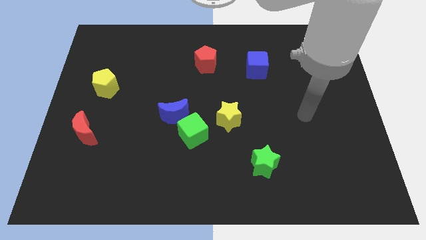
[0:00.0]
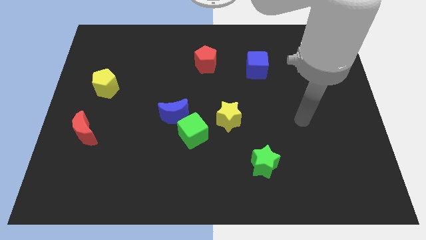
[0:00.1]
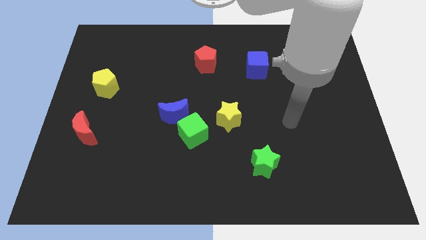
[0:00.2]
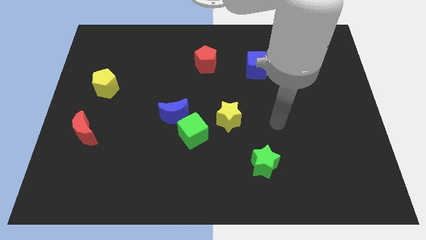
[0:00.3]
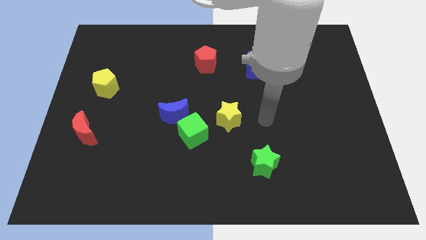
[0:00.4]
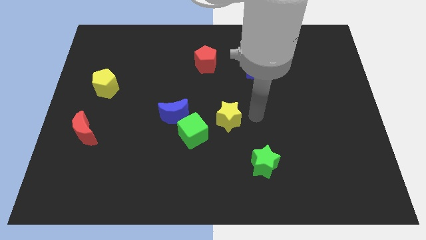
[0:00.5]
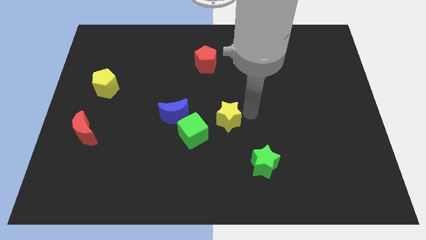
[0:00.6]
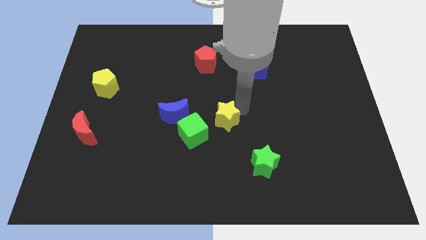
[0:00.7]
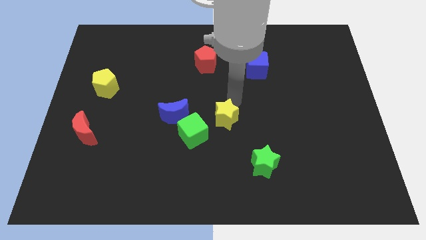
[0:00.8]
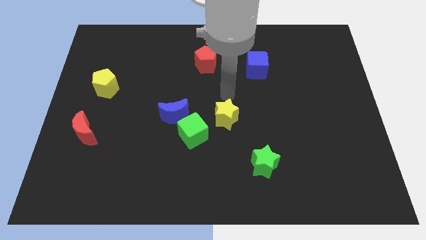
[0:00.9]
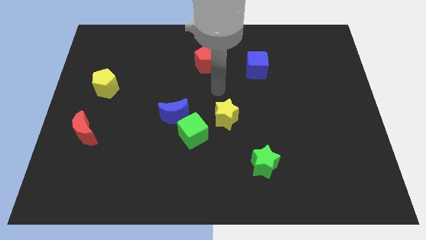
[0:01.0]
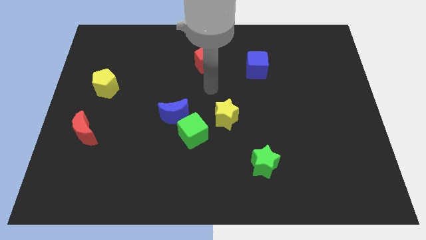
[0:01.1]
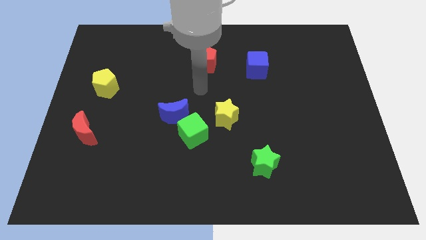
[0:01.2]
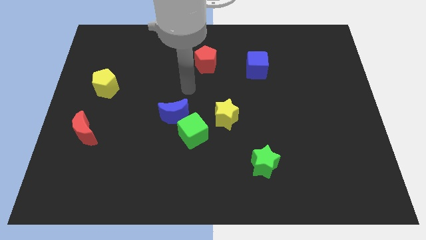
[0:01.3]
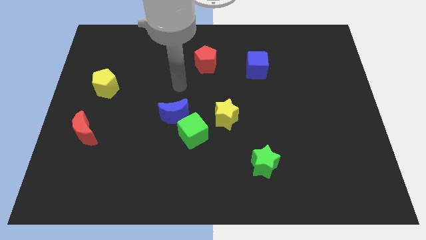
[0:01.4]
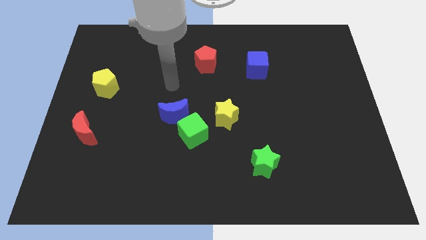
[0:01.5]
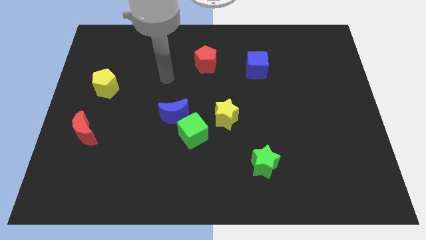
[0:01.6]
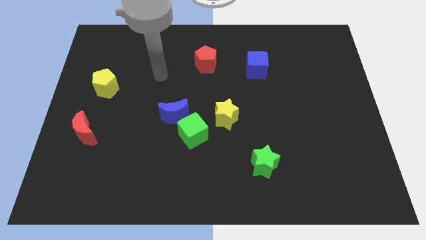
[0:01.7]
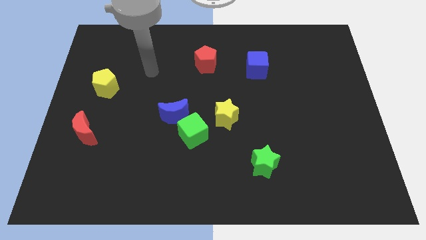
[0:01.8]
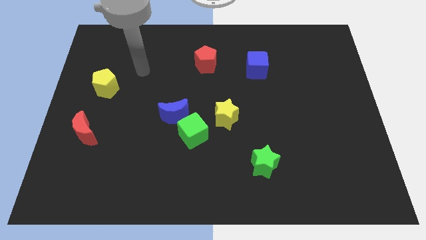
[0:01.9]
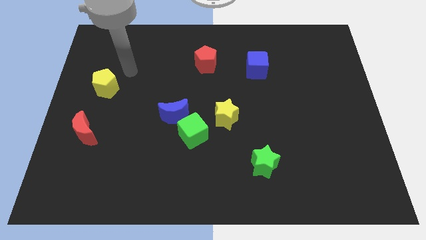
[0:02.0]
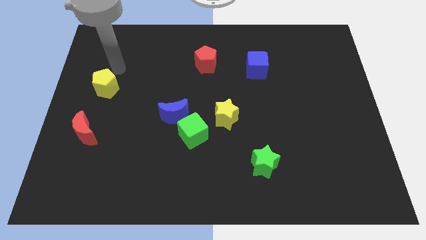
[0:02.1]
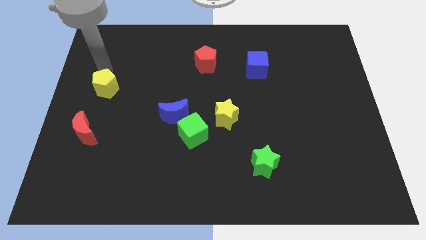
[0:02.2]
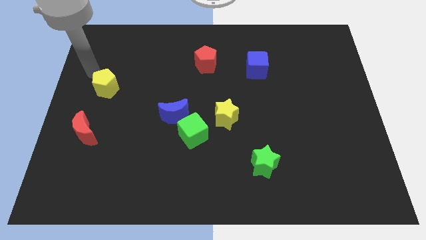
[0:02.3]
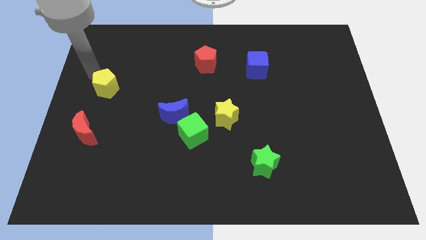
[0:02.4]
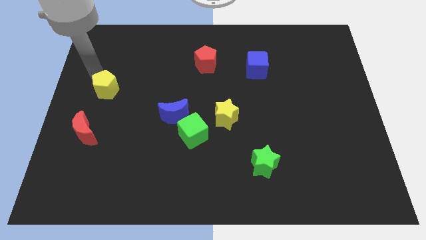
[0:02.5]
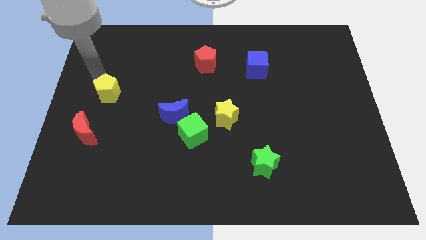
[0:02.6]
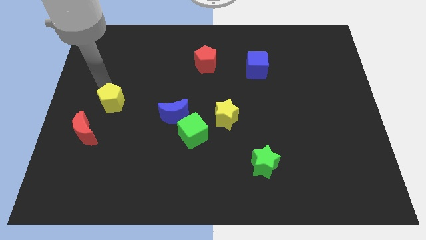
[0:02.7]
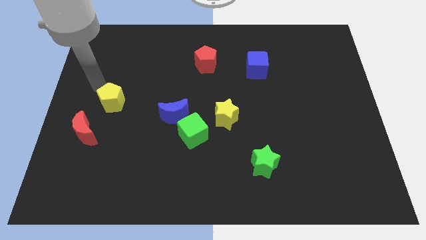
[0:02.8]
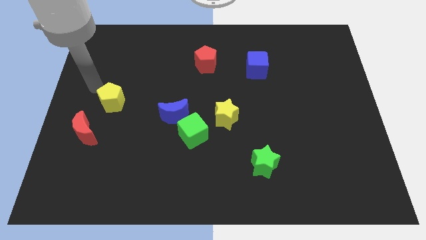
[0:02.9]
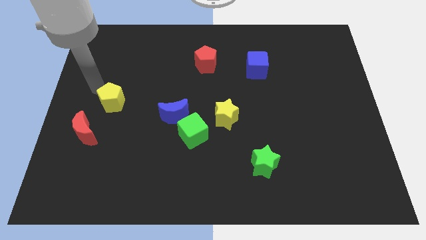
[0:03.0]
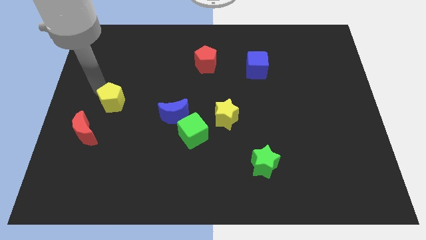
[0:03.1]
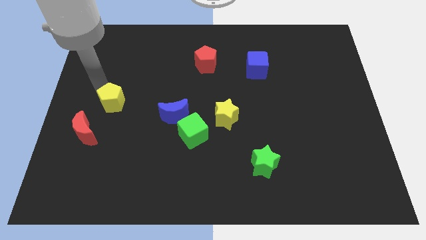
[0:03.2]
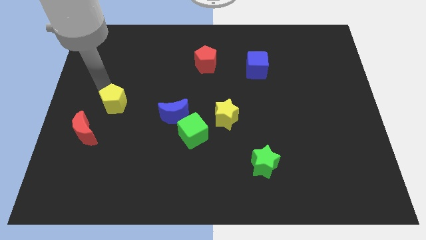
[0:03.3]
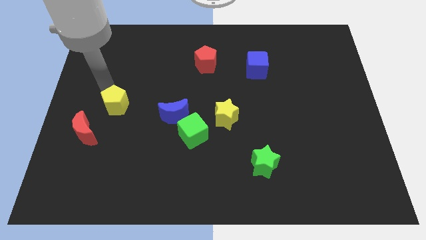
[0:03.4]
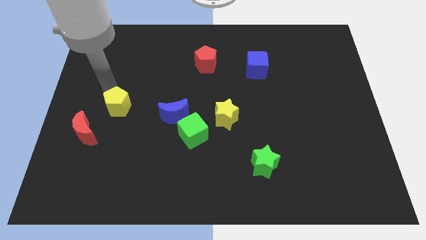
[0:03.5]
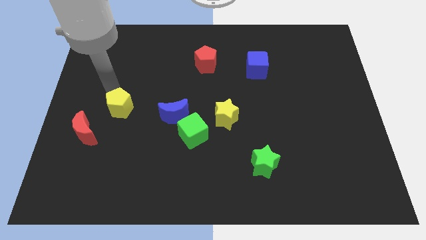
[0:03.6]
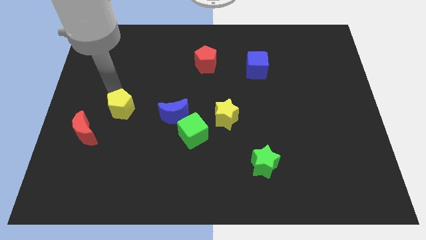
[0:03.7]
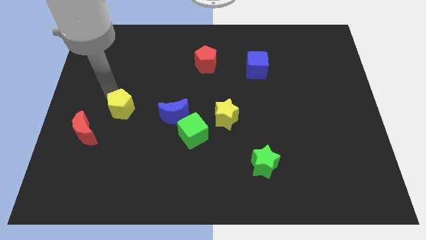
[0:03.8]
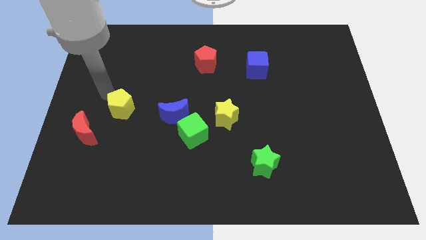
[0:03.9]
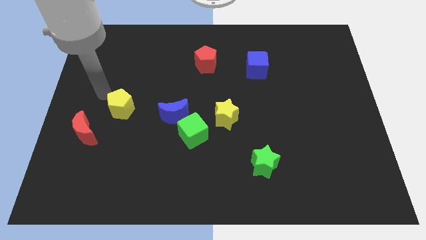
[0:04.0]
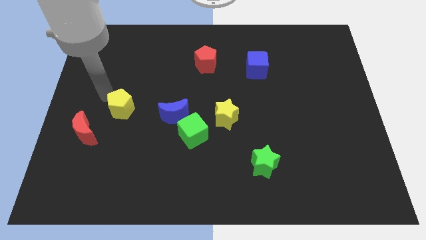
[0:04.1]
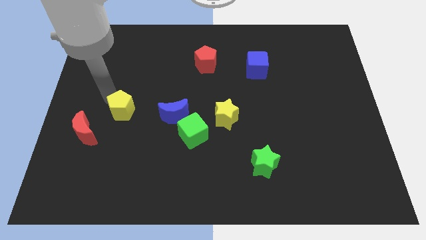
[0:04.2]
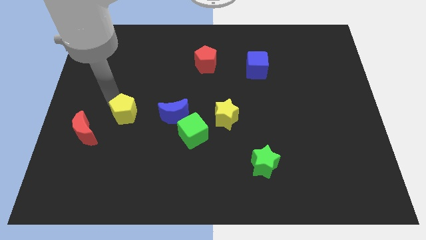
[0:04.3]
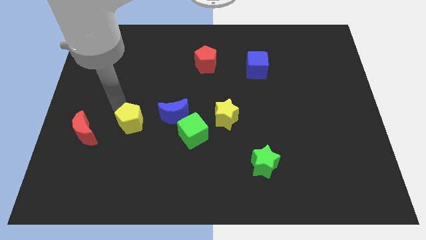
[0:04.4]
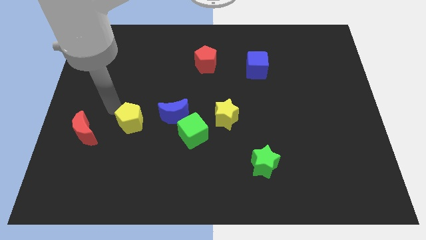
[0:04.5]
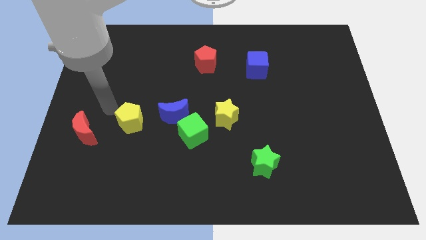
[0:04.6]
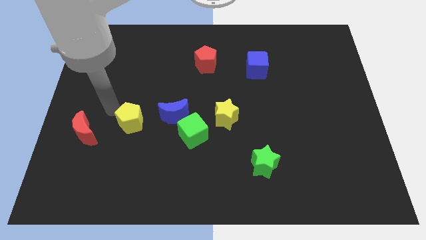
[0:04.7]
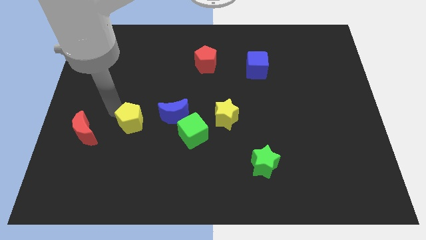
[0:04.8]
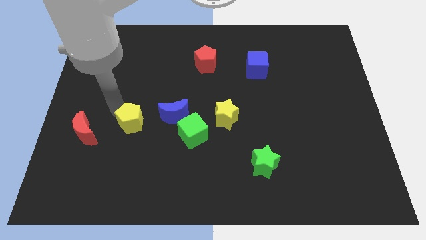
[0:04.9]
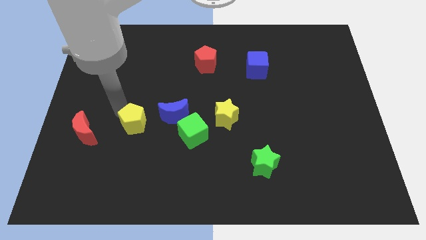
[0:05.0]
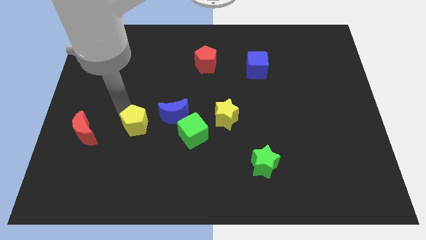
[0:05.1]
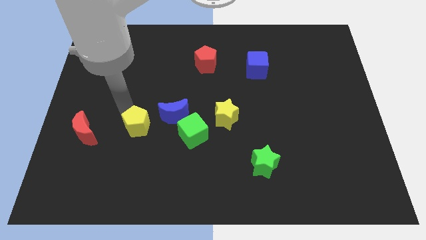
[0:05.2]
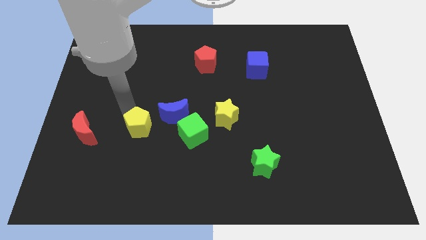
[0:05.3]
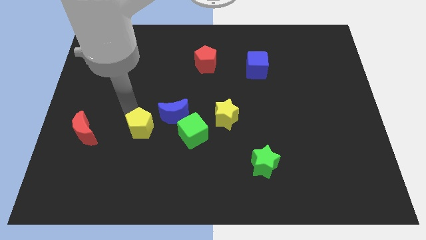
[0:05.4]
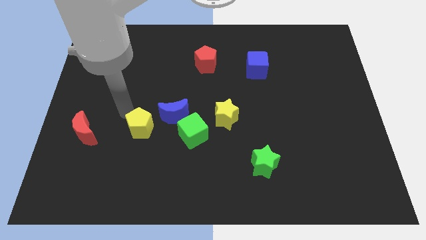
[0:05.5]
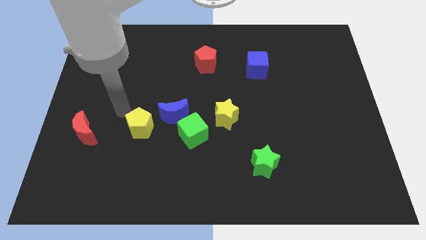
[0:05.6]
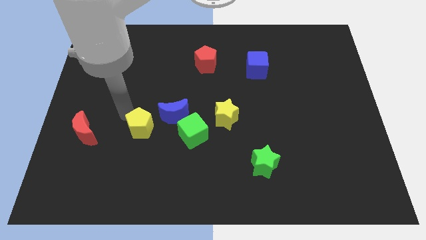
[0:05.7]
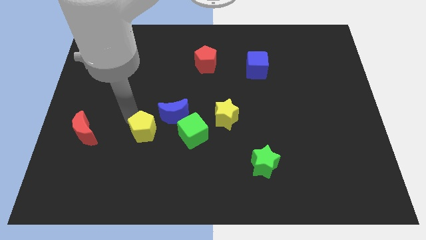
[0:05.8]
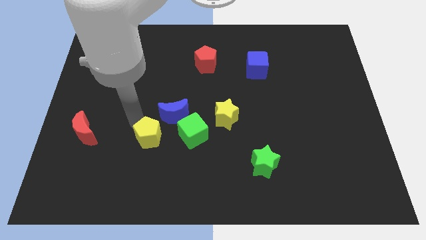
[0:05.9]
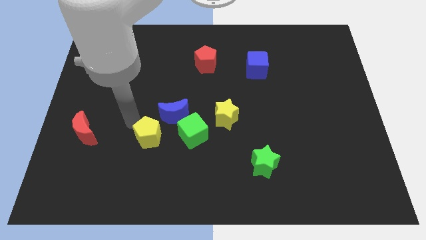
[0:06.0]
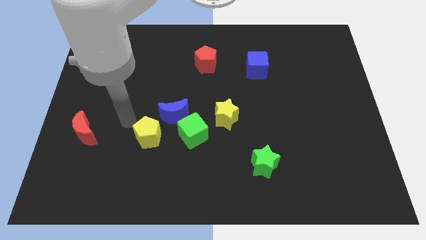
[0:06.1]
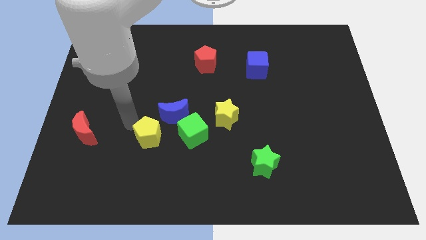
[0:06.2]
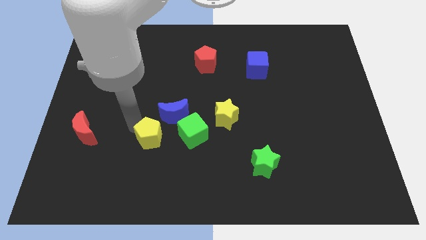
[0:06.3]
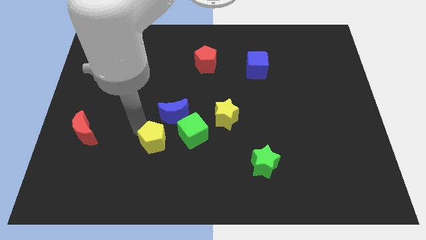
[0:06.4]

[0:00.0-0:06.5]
slide the yellow pentagon diagonally down and to the right

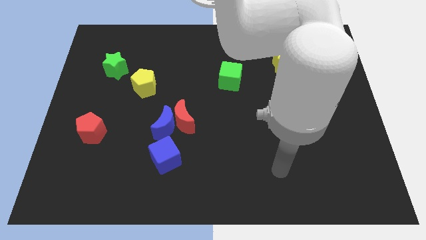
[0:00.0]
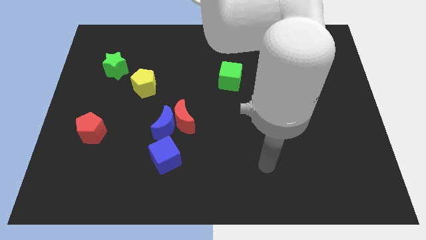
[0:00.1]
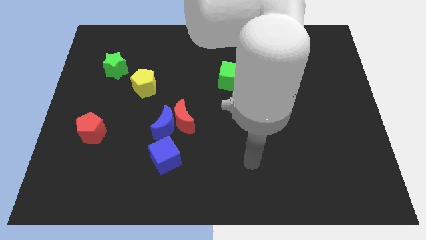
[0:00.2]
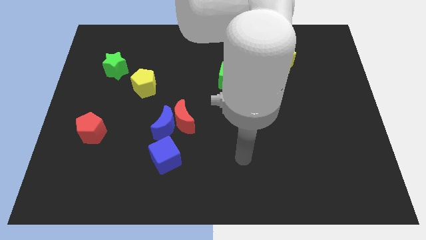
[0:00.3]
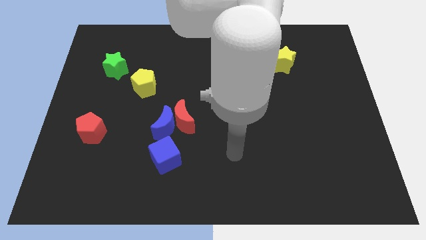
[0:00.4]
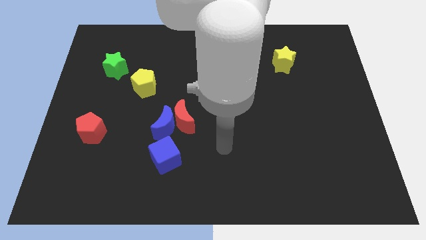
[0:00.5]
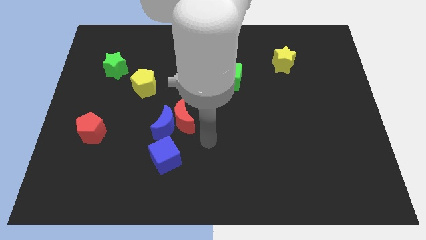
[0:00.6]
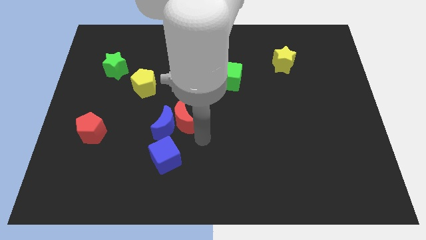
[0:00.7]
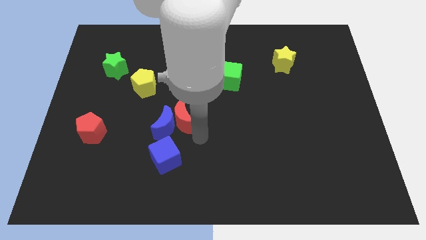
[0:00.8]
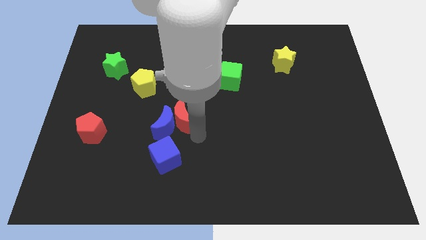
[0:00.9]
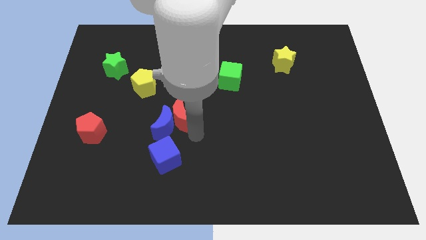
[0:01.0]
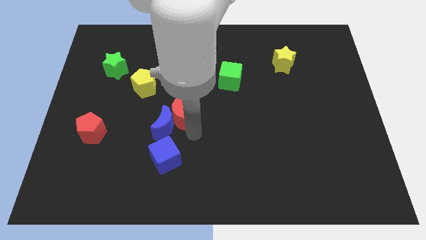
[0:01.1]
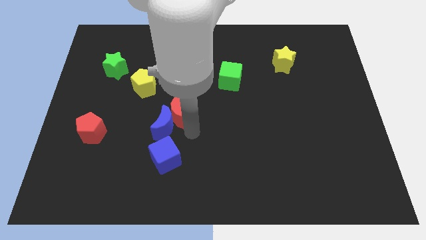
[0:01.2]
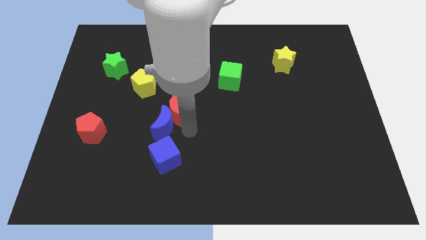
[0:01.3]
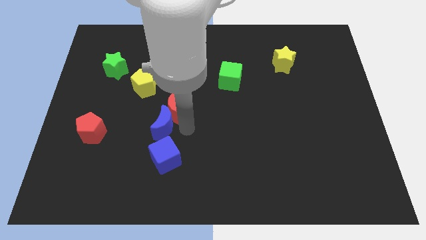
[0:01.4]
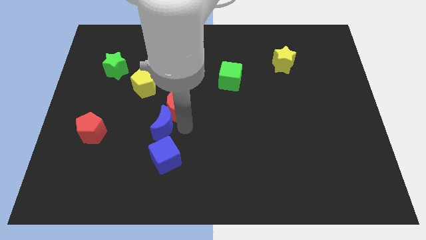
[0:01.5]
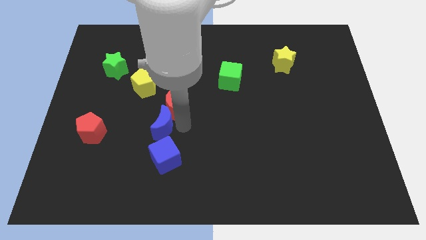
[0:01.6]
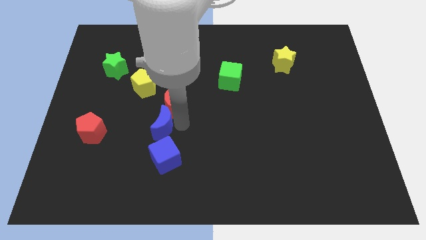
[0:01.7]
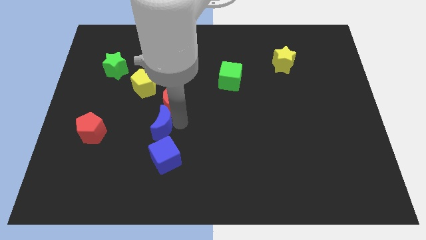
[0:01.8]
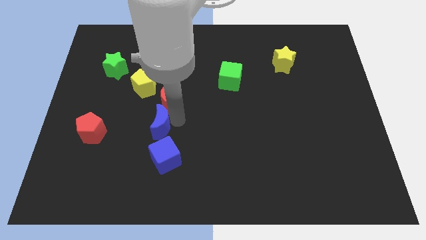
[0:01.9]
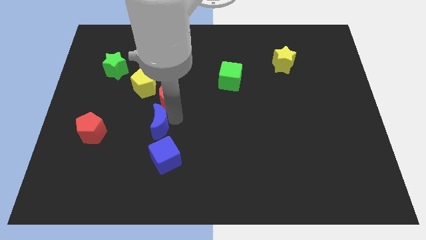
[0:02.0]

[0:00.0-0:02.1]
push the red moon upwards and left diagonally a bit
